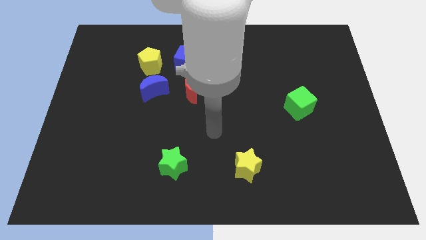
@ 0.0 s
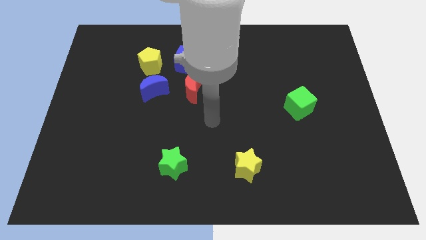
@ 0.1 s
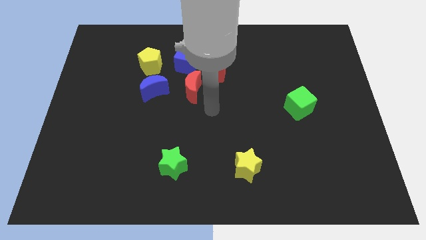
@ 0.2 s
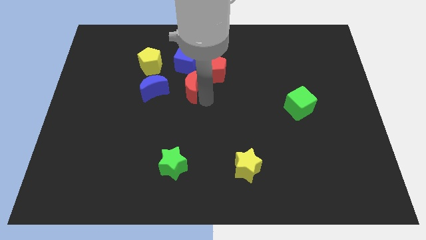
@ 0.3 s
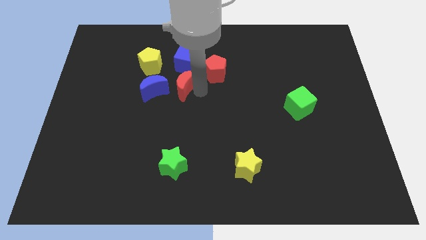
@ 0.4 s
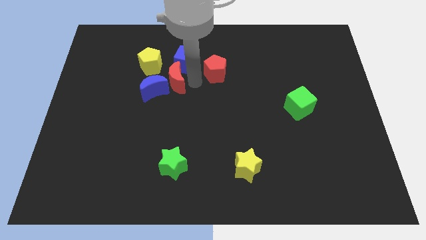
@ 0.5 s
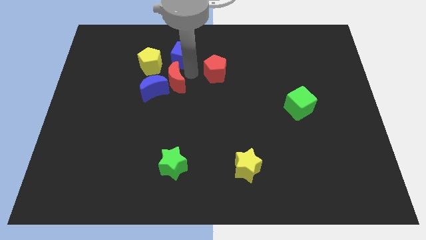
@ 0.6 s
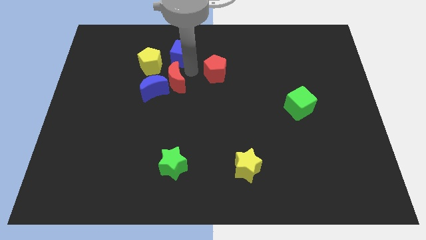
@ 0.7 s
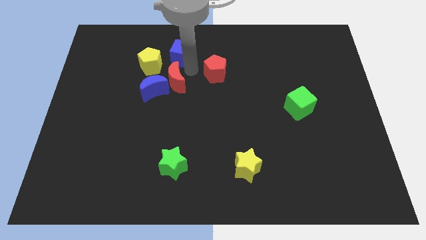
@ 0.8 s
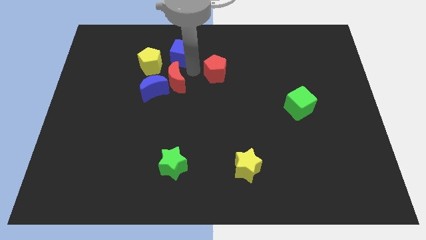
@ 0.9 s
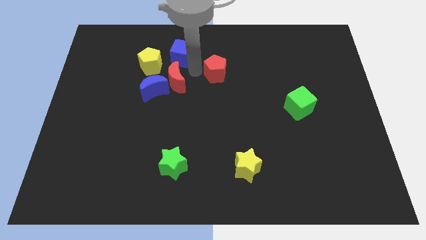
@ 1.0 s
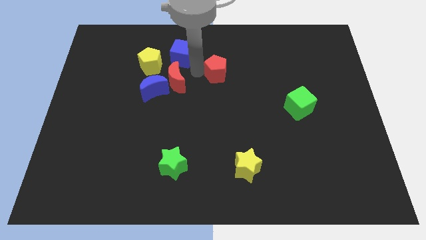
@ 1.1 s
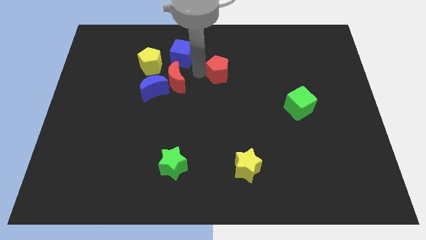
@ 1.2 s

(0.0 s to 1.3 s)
separate the red pentagon from the blue cube and red moon

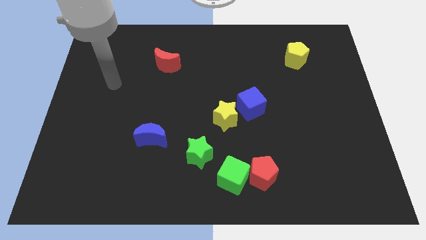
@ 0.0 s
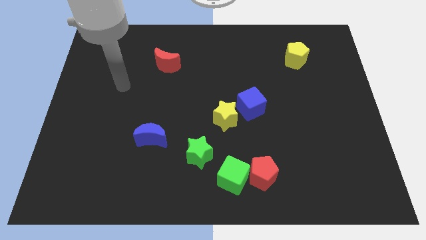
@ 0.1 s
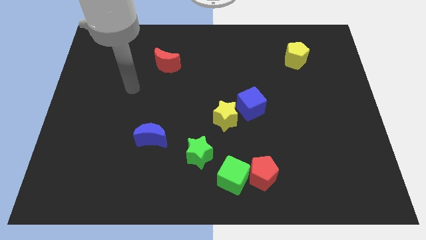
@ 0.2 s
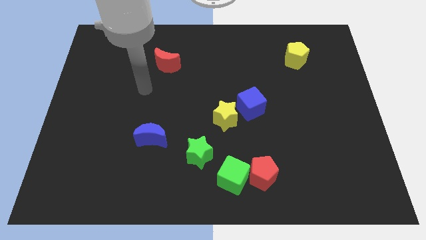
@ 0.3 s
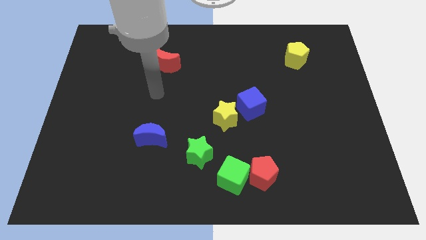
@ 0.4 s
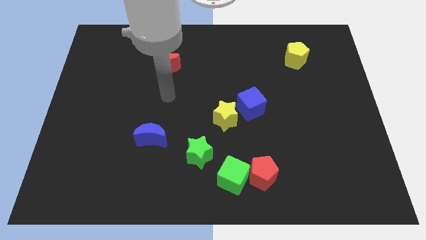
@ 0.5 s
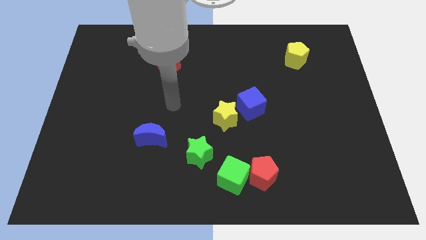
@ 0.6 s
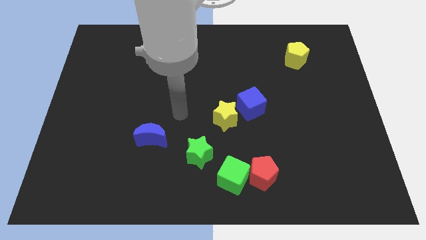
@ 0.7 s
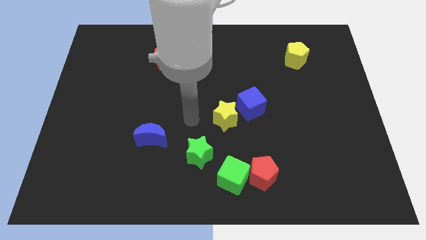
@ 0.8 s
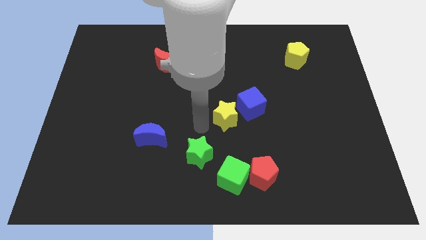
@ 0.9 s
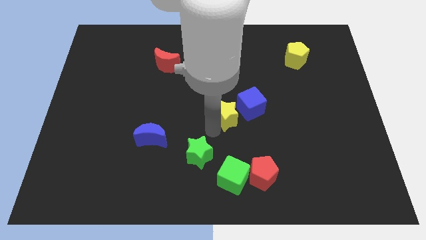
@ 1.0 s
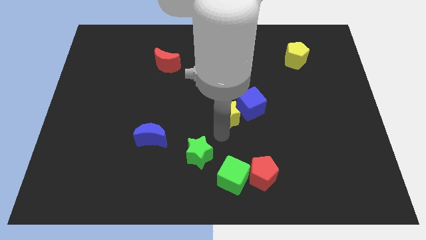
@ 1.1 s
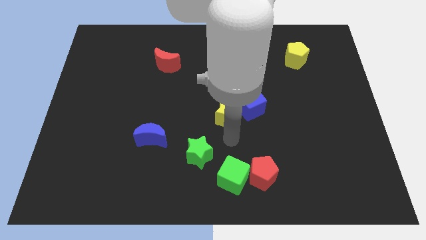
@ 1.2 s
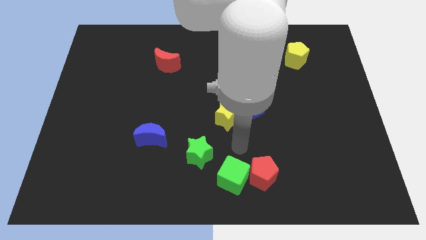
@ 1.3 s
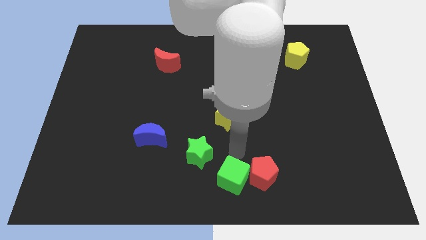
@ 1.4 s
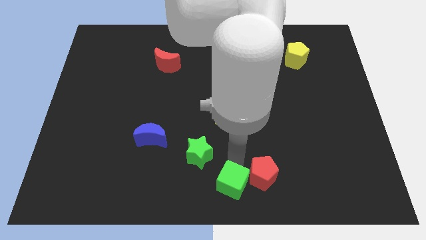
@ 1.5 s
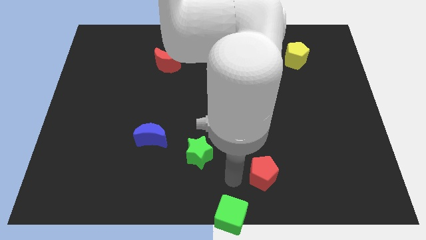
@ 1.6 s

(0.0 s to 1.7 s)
pull the red pentagon apart from the green cube

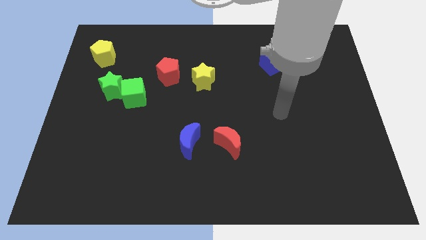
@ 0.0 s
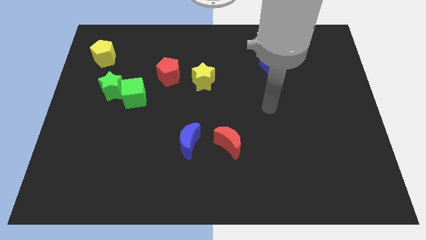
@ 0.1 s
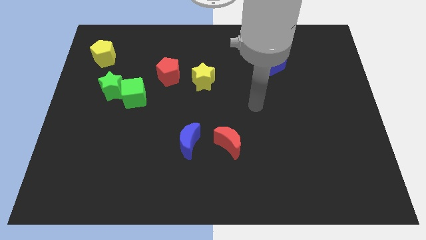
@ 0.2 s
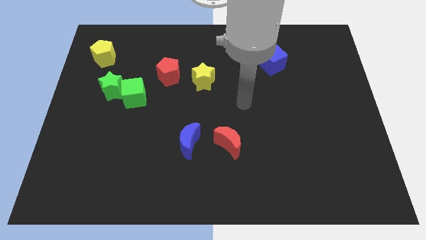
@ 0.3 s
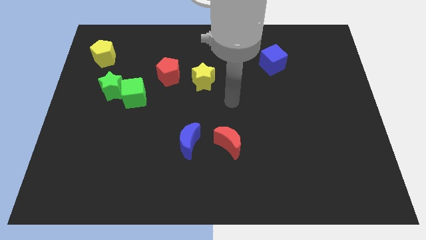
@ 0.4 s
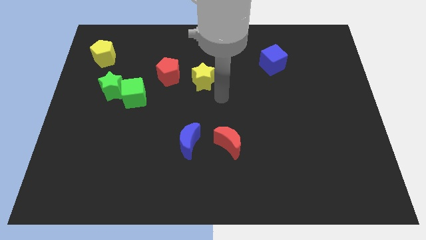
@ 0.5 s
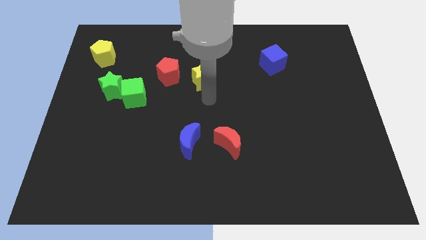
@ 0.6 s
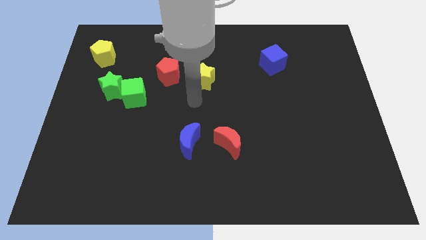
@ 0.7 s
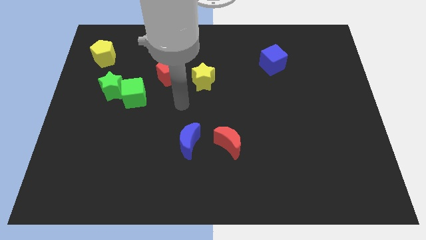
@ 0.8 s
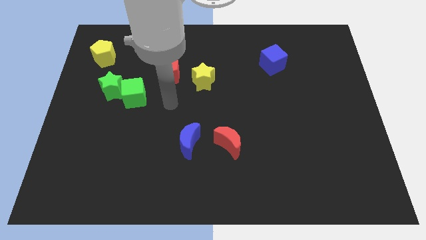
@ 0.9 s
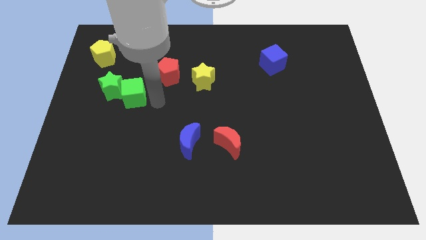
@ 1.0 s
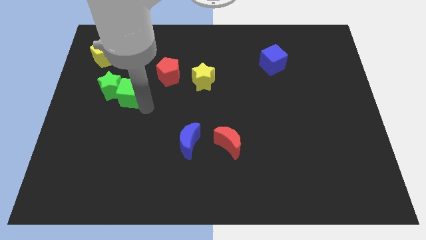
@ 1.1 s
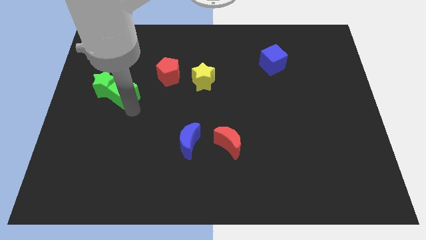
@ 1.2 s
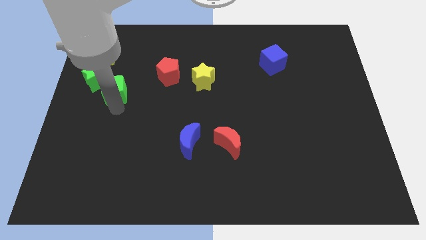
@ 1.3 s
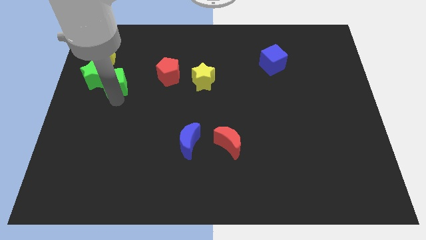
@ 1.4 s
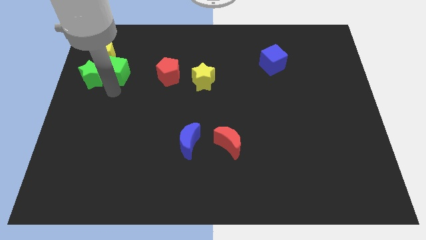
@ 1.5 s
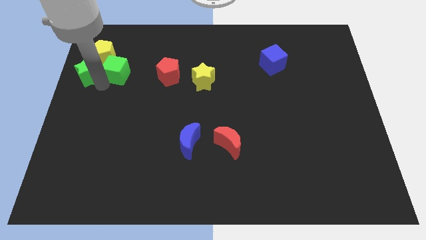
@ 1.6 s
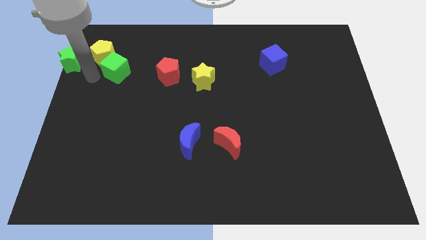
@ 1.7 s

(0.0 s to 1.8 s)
separate the green cube from the green star

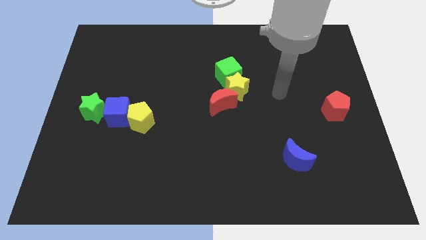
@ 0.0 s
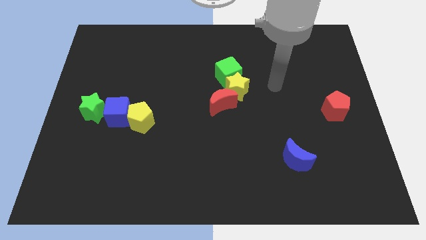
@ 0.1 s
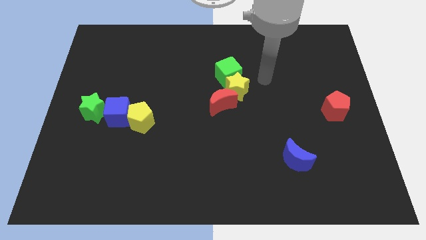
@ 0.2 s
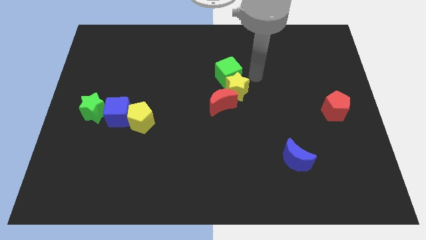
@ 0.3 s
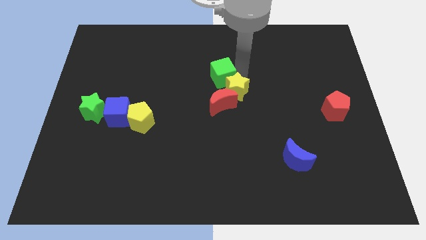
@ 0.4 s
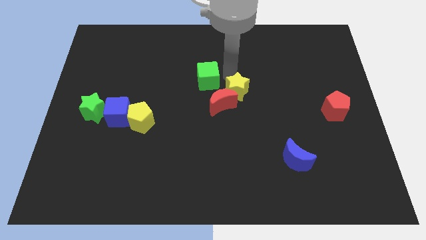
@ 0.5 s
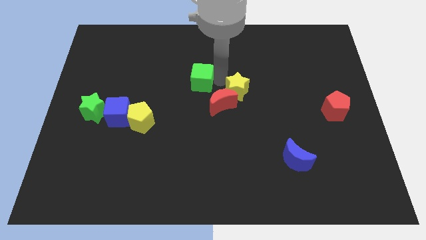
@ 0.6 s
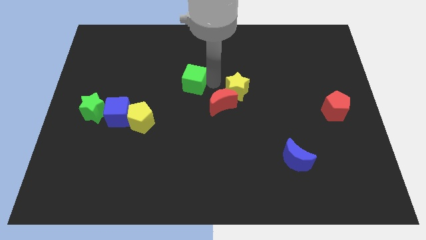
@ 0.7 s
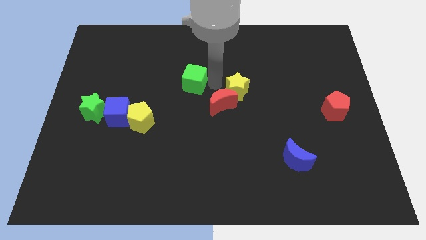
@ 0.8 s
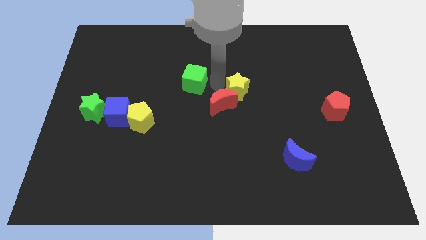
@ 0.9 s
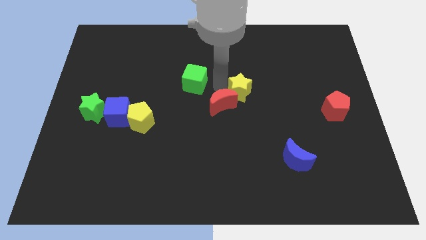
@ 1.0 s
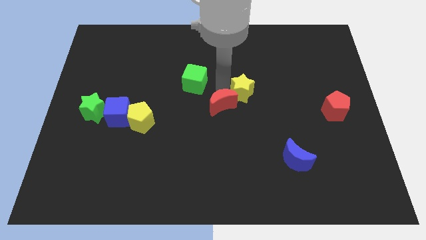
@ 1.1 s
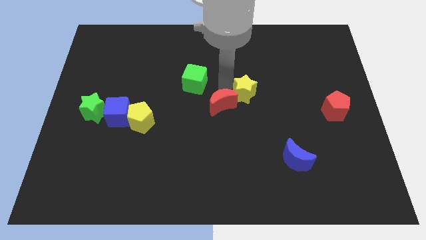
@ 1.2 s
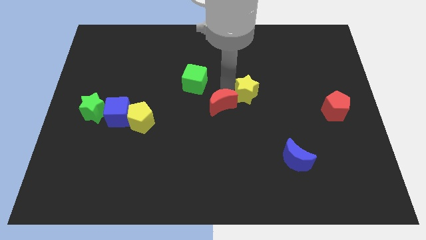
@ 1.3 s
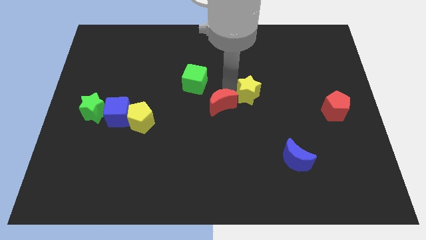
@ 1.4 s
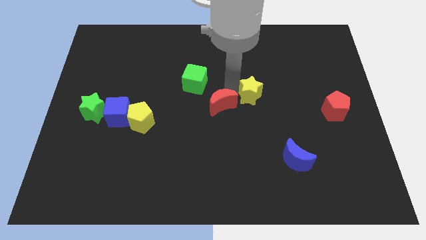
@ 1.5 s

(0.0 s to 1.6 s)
separate the yellow star from the red moon and green cube

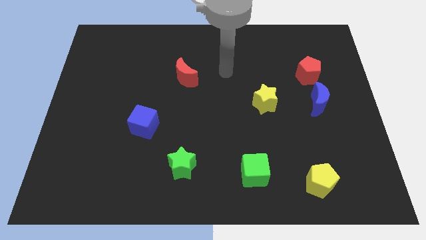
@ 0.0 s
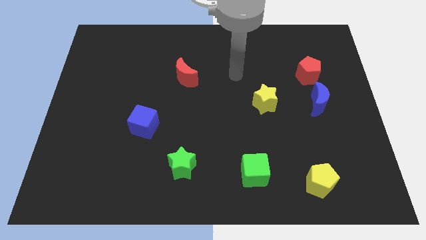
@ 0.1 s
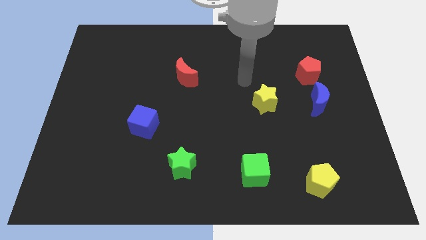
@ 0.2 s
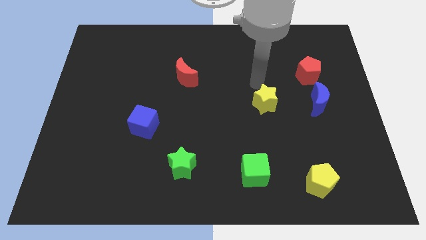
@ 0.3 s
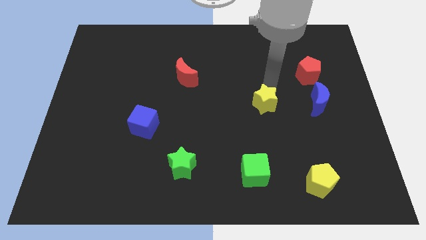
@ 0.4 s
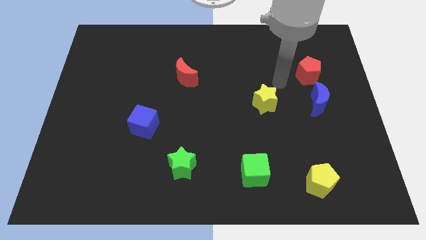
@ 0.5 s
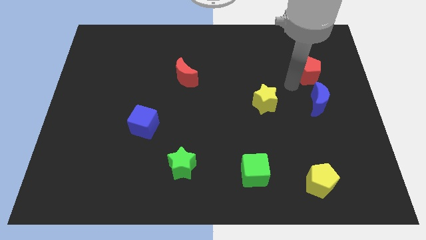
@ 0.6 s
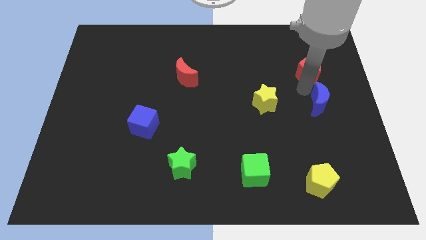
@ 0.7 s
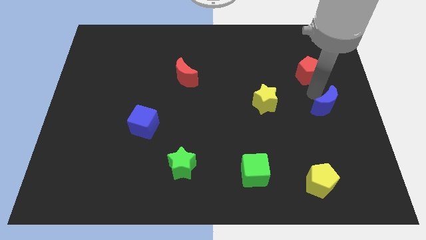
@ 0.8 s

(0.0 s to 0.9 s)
move the red pentagon away from the blue moon

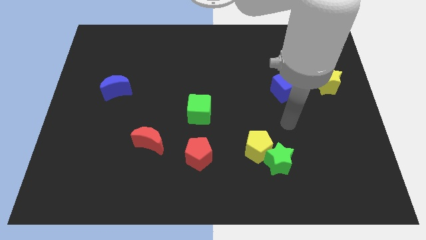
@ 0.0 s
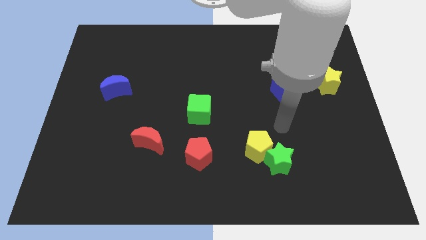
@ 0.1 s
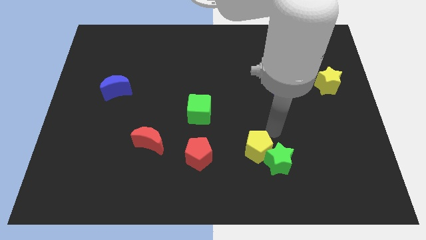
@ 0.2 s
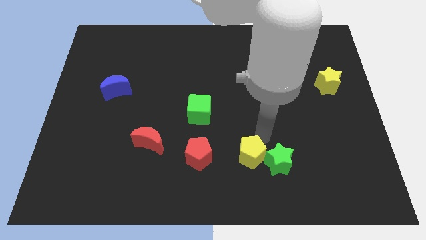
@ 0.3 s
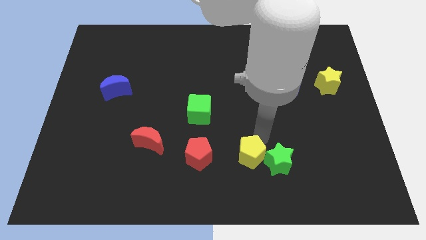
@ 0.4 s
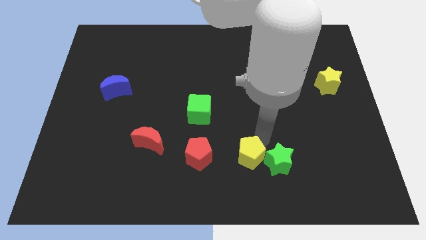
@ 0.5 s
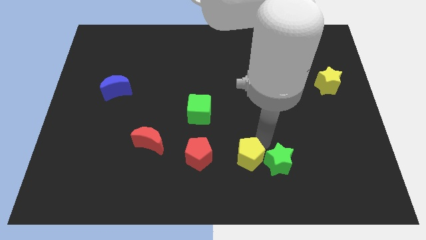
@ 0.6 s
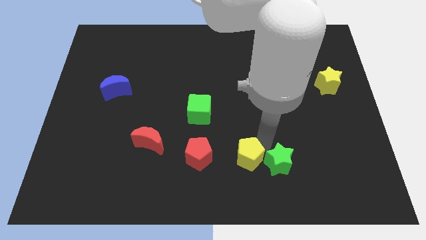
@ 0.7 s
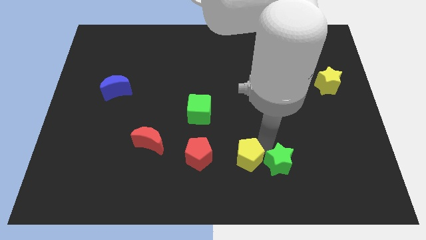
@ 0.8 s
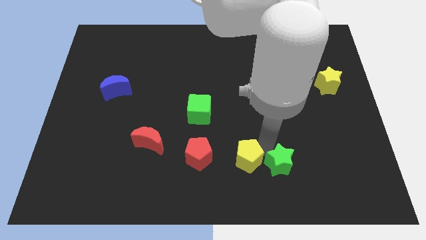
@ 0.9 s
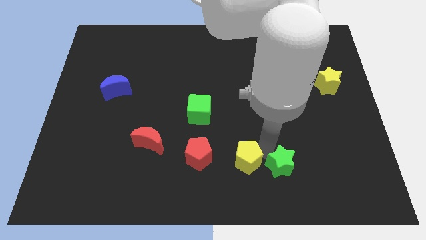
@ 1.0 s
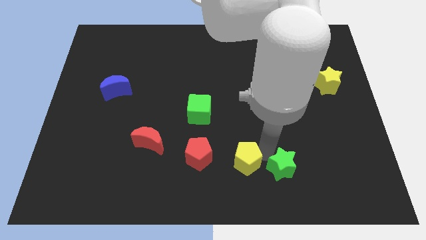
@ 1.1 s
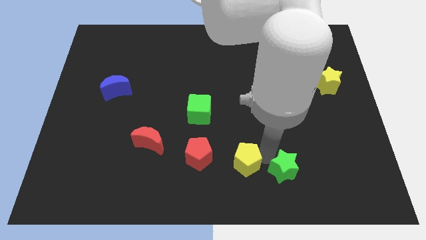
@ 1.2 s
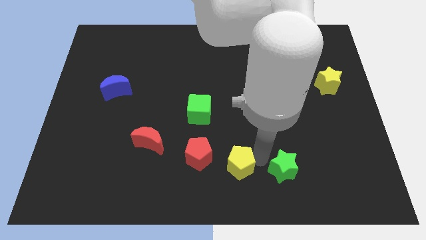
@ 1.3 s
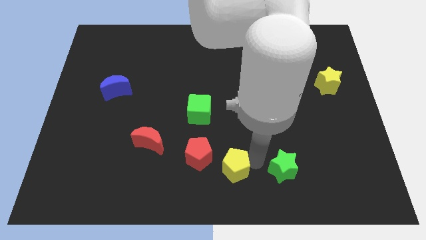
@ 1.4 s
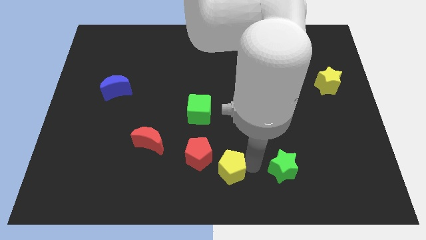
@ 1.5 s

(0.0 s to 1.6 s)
pull the green star apart from the yellow pentagon

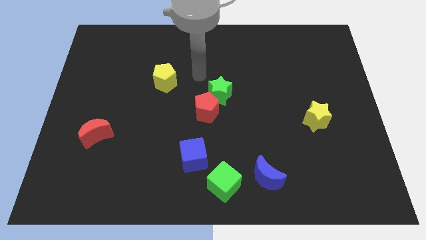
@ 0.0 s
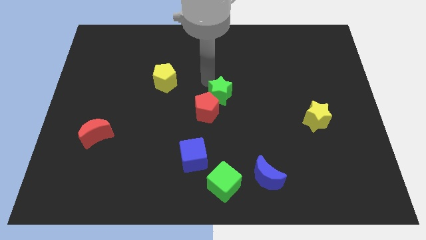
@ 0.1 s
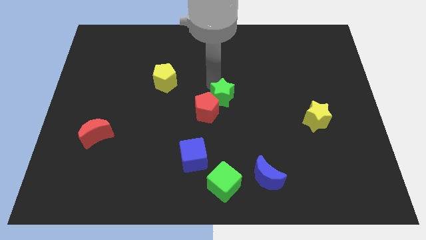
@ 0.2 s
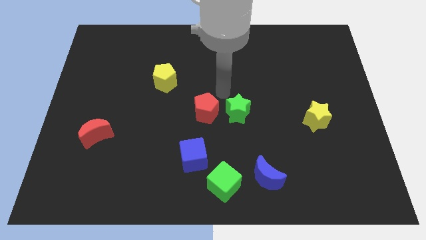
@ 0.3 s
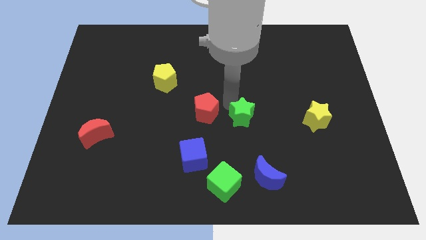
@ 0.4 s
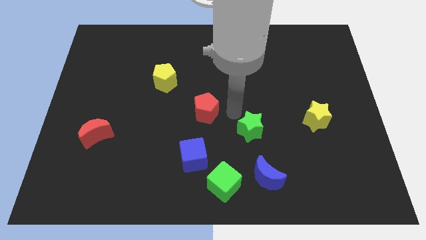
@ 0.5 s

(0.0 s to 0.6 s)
pull the red pentagon apart from the green star
